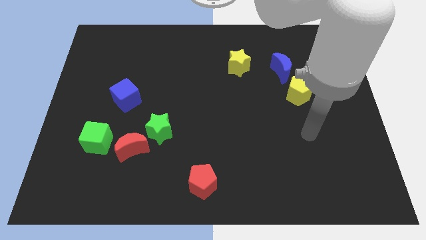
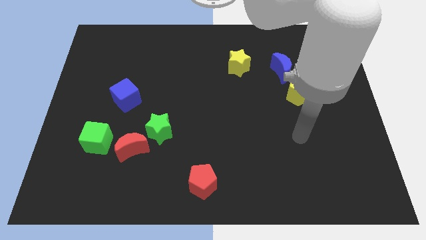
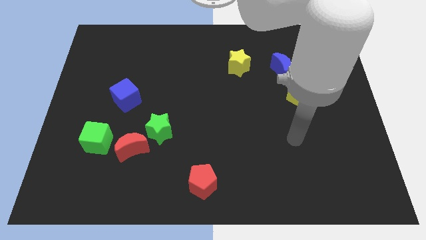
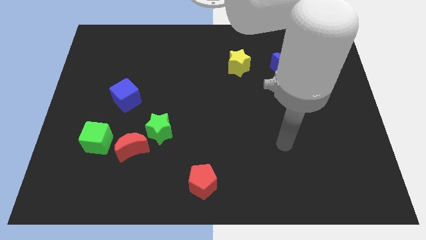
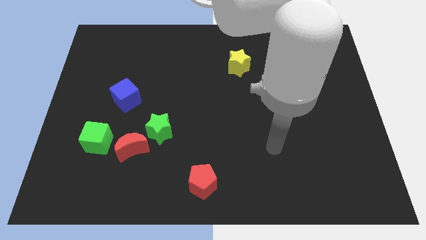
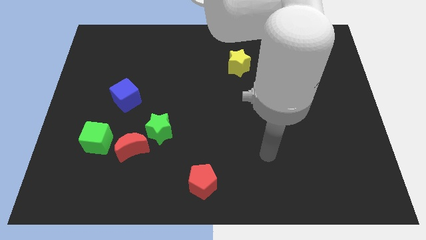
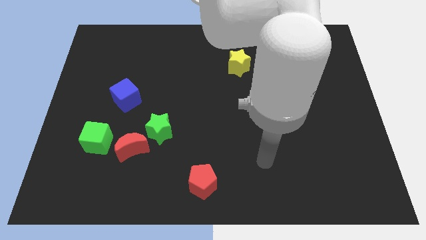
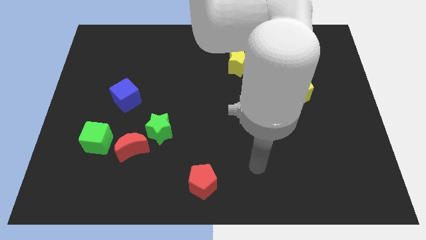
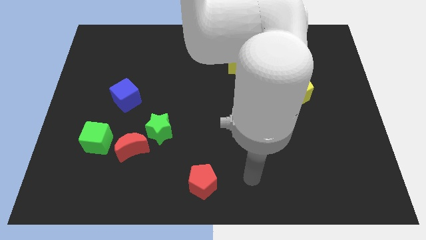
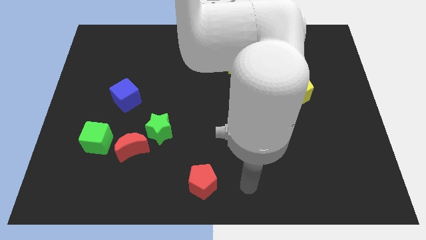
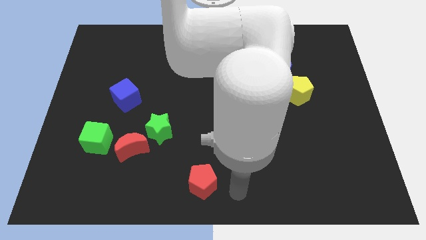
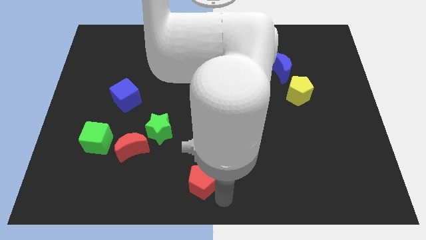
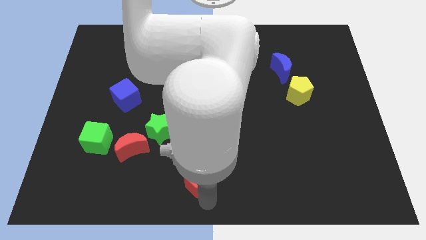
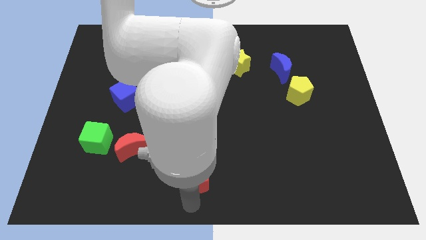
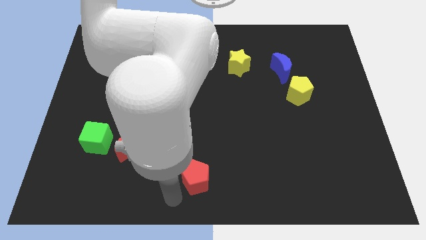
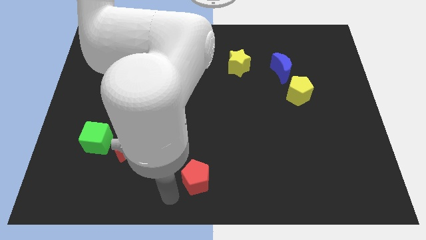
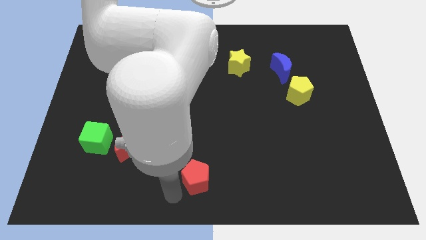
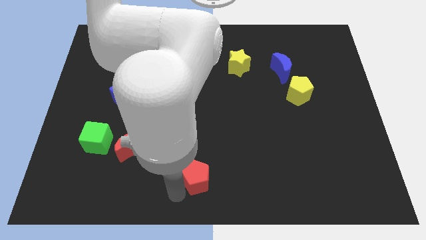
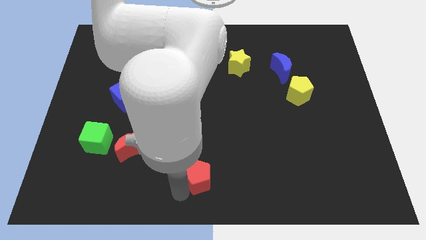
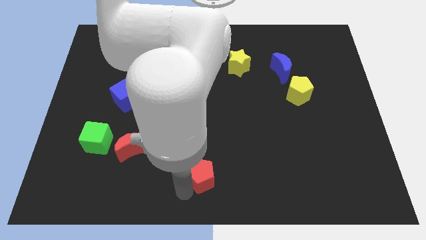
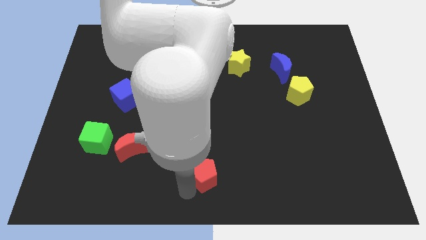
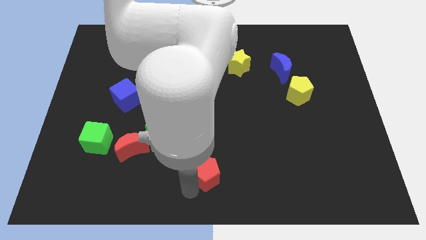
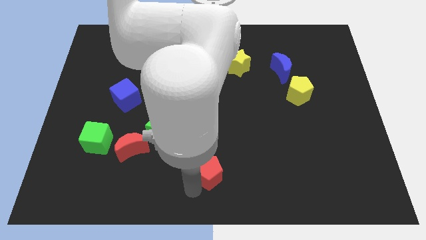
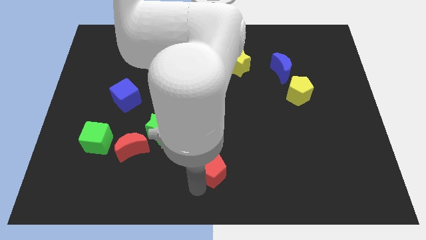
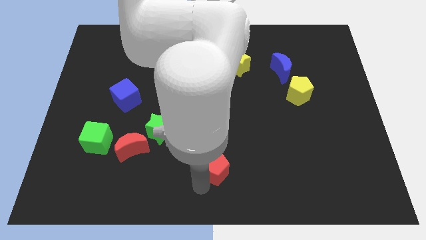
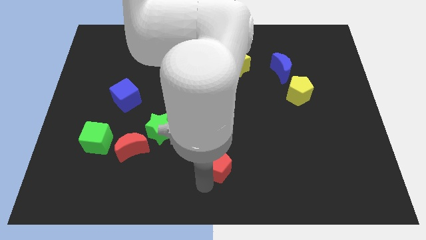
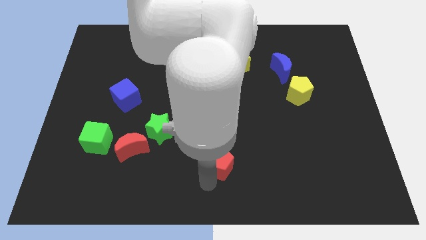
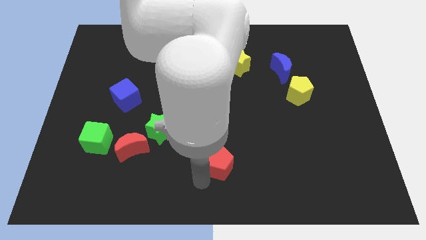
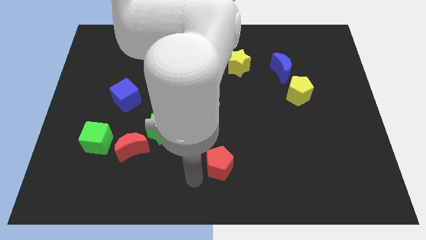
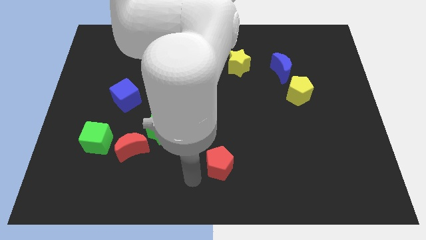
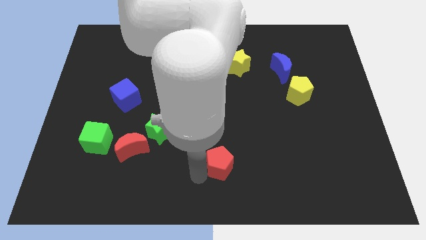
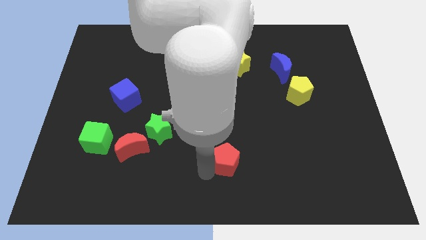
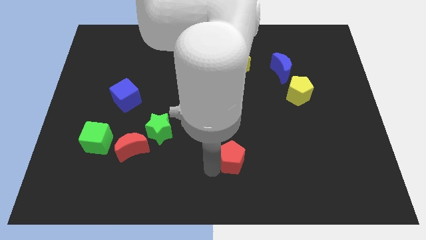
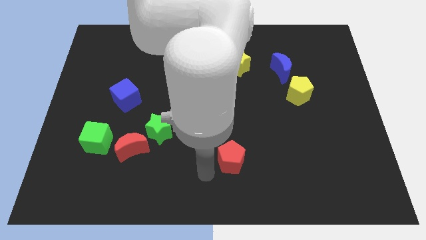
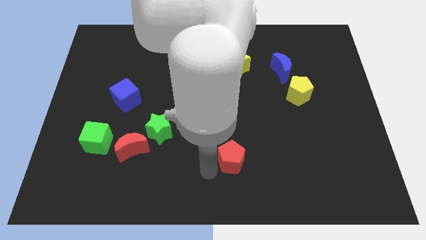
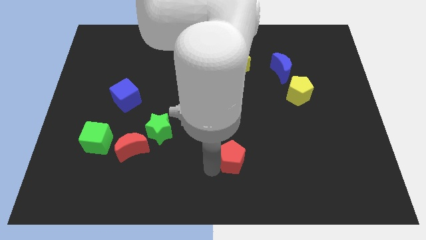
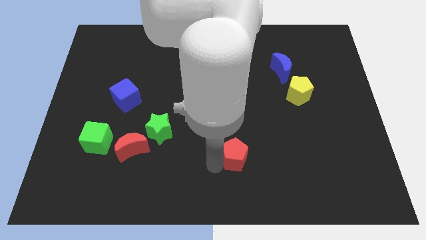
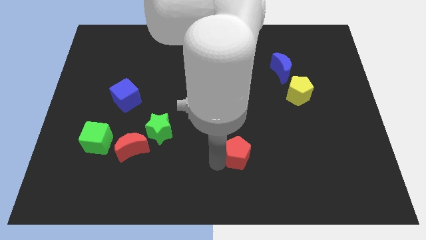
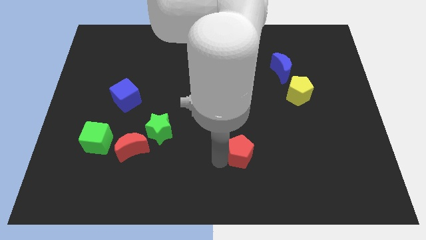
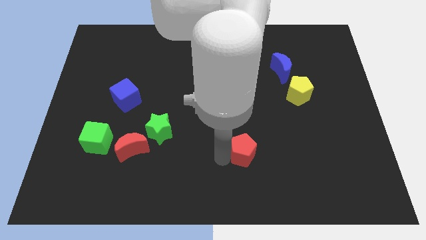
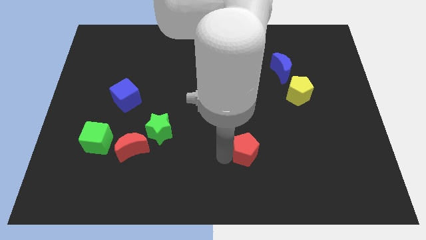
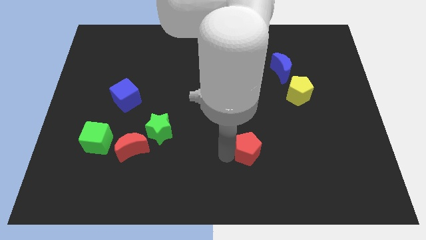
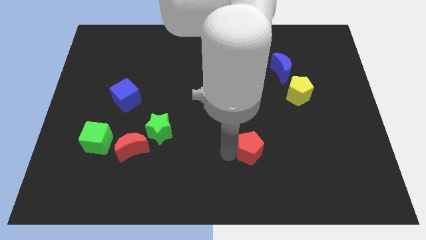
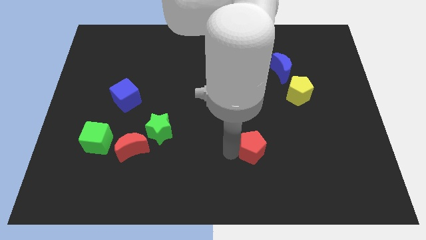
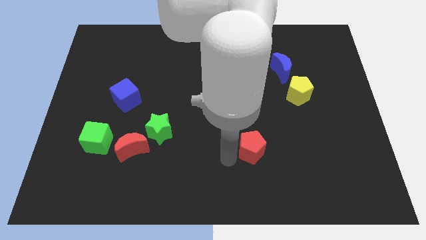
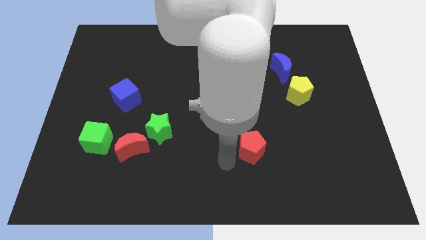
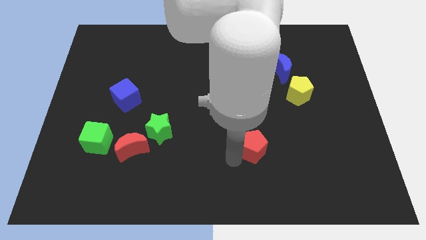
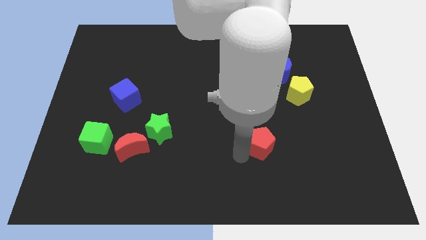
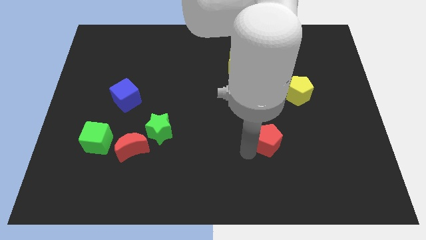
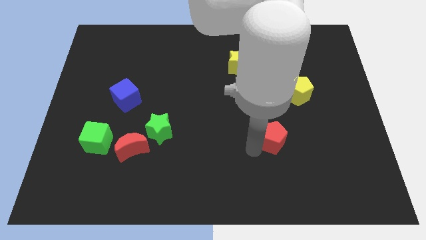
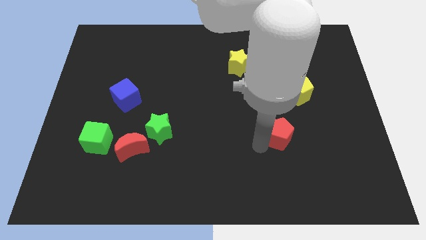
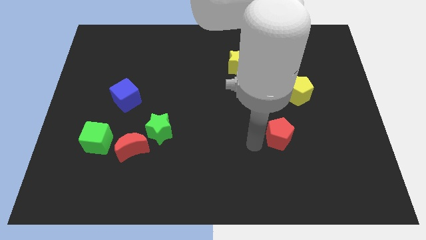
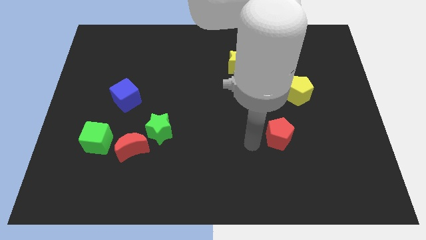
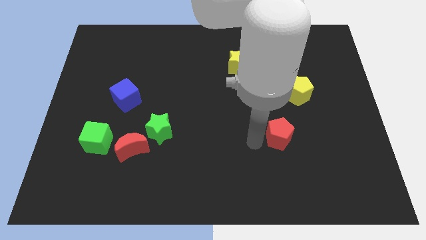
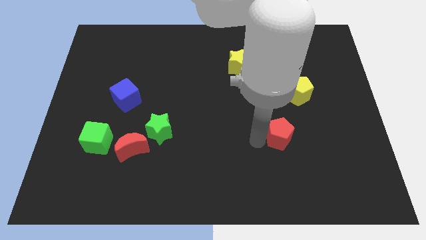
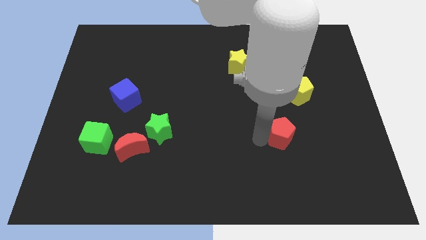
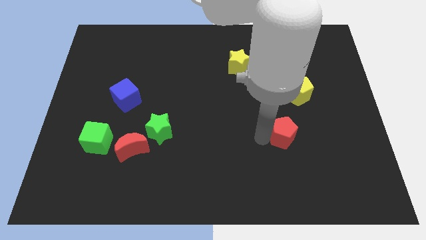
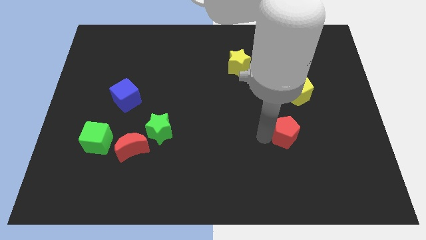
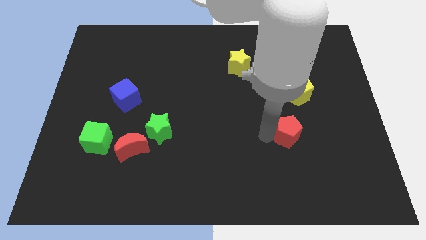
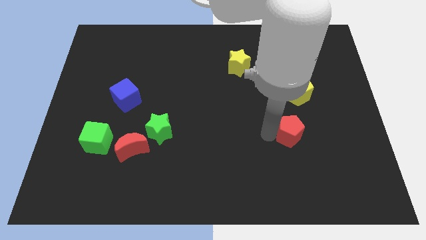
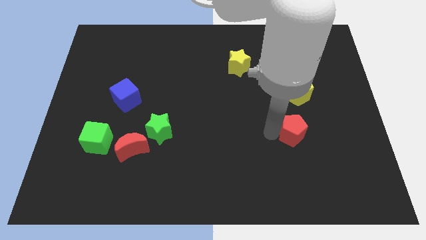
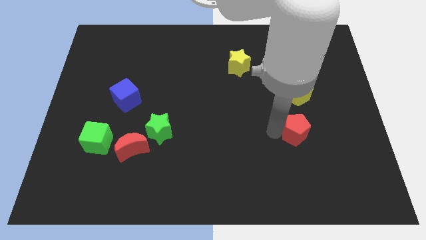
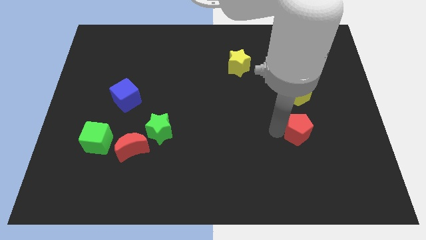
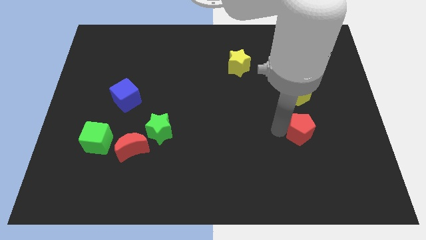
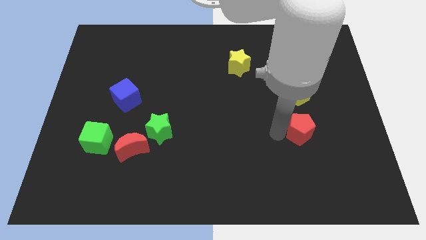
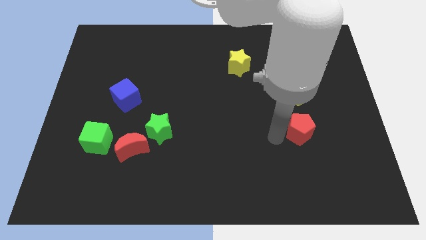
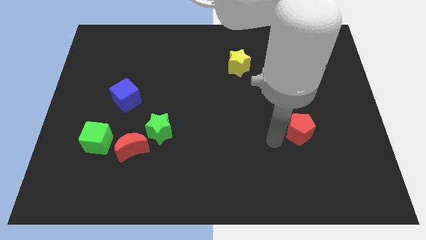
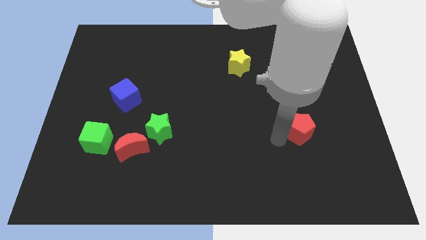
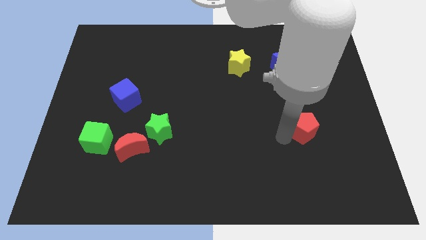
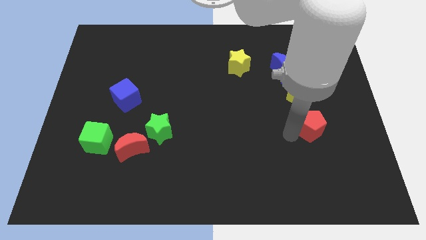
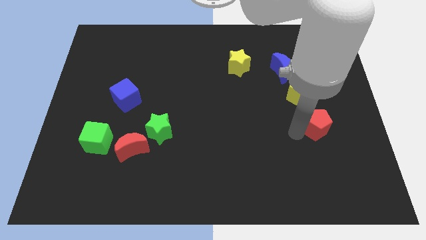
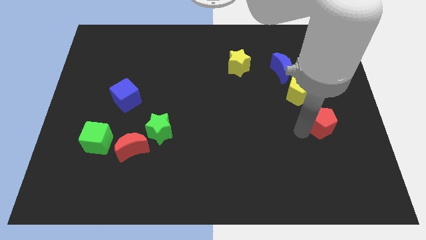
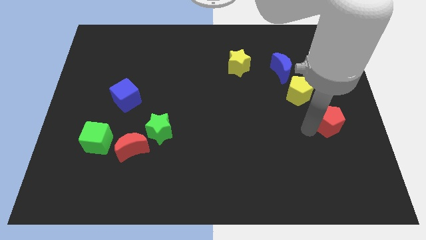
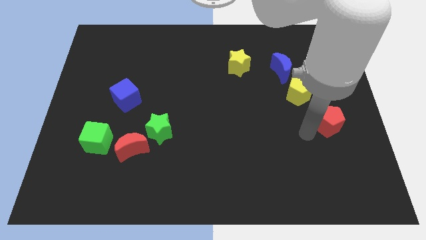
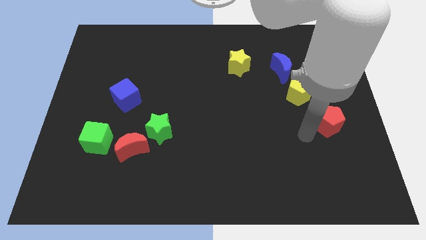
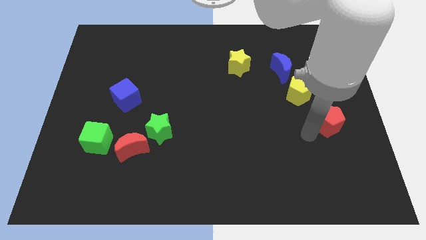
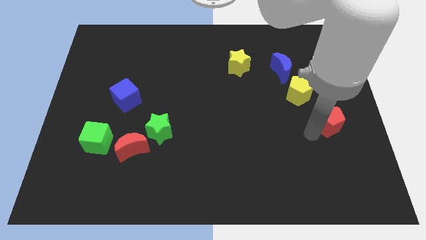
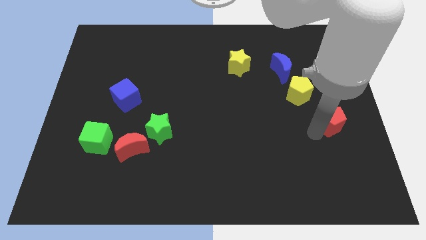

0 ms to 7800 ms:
push the red pentagon to the right side of the board
